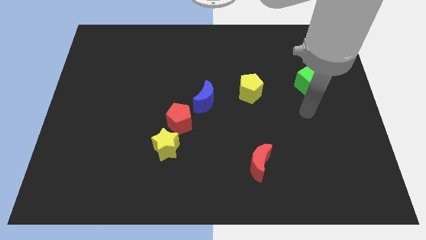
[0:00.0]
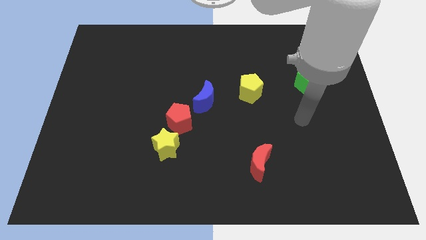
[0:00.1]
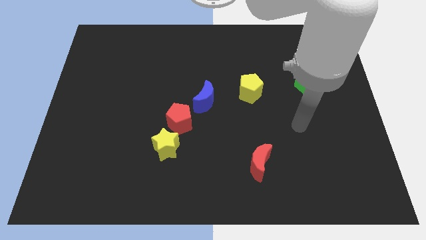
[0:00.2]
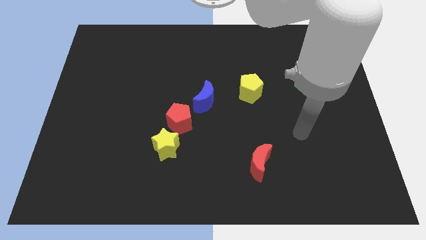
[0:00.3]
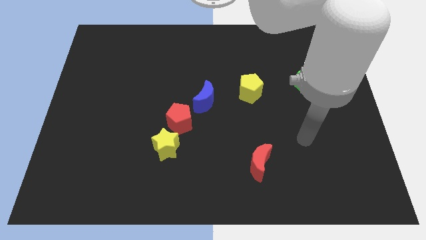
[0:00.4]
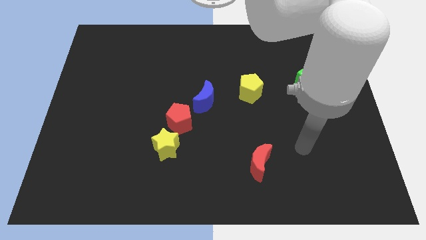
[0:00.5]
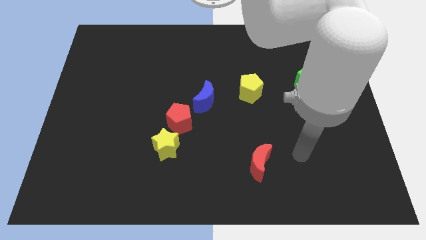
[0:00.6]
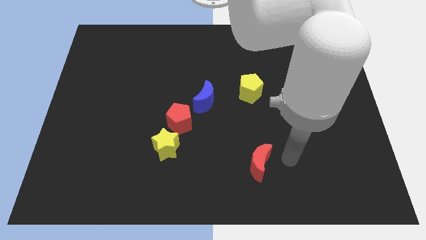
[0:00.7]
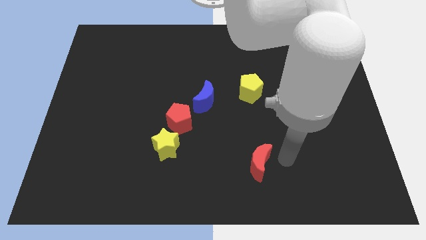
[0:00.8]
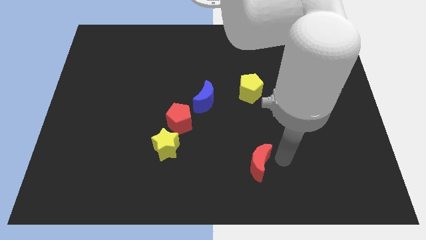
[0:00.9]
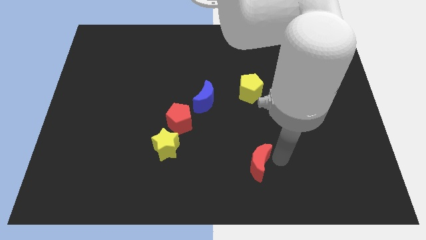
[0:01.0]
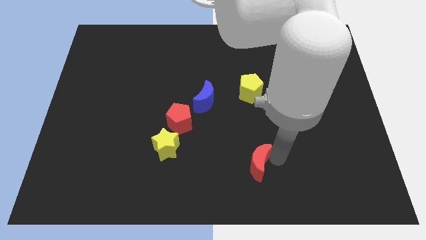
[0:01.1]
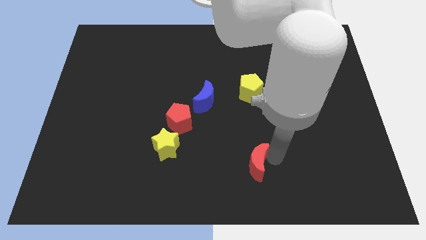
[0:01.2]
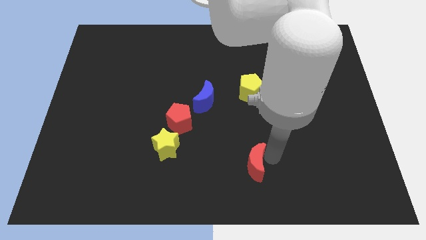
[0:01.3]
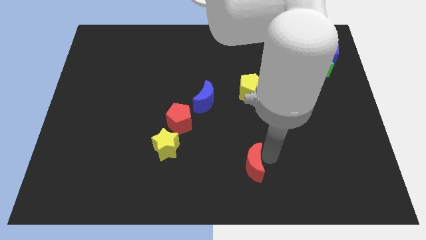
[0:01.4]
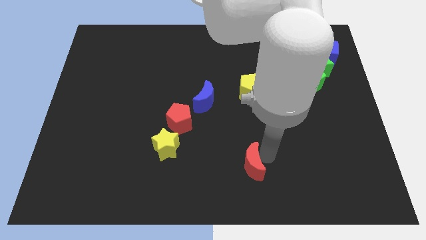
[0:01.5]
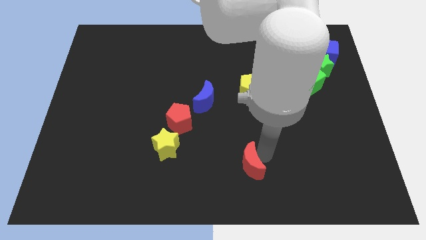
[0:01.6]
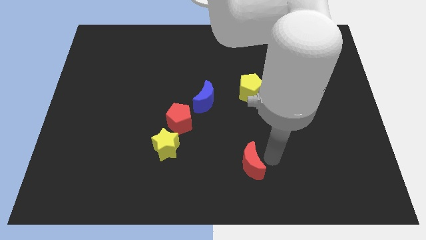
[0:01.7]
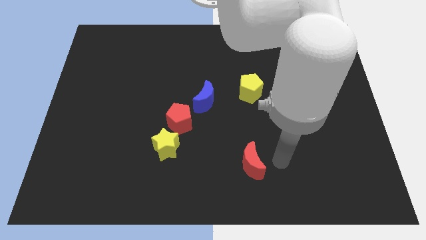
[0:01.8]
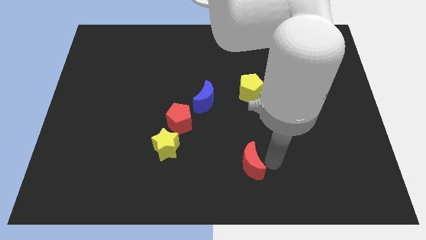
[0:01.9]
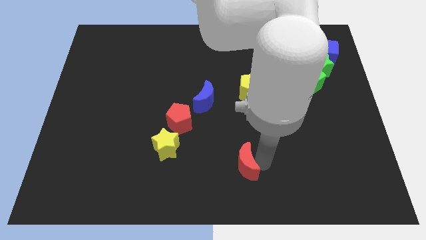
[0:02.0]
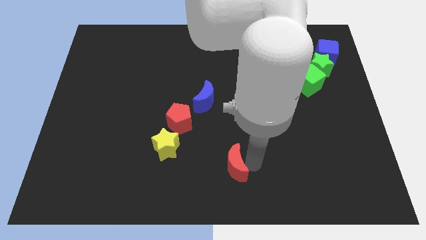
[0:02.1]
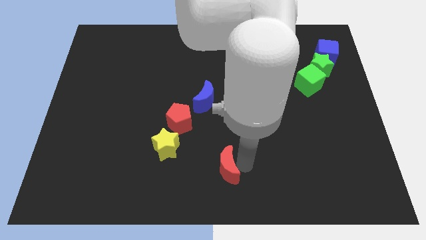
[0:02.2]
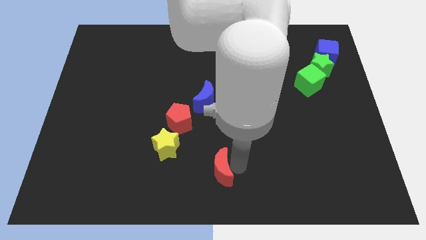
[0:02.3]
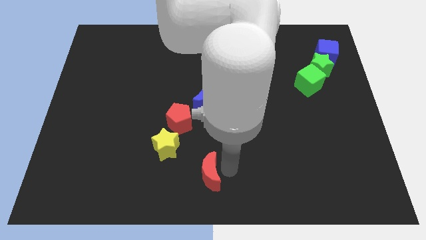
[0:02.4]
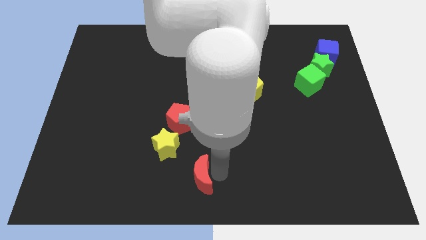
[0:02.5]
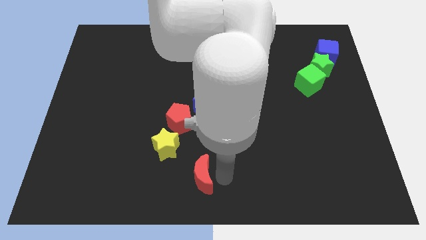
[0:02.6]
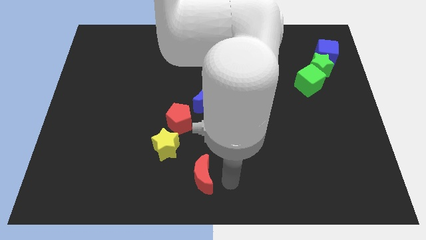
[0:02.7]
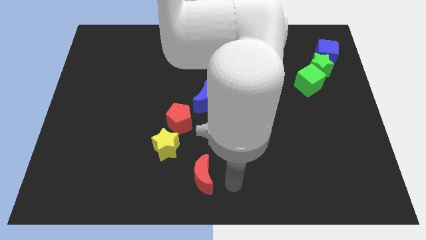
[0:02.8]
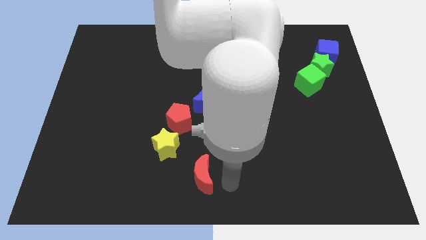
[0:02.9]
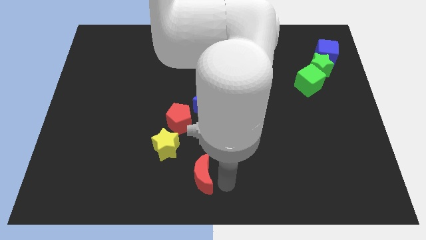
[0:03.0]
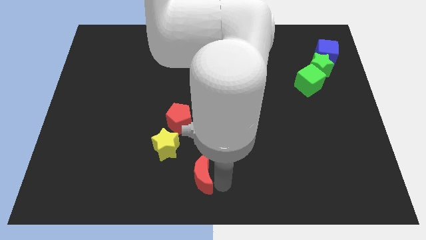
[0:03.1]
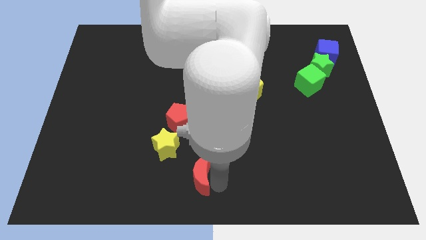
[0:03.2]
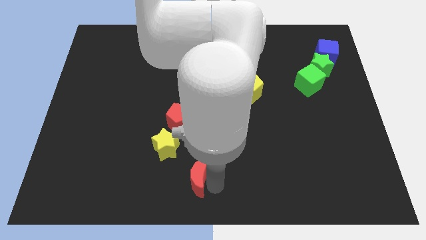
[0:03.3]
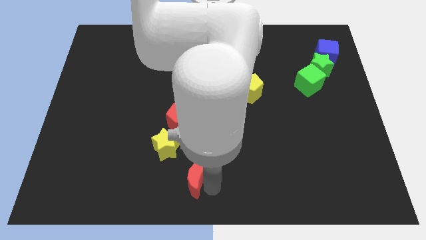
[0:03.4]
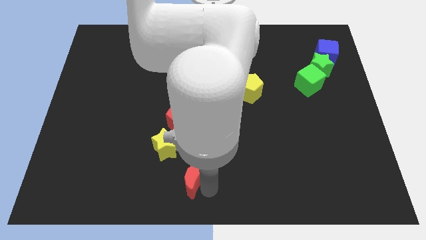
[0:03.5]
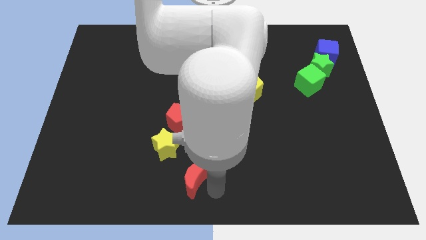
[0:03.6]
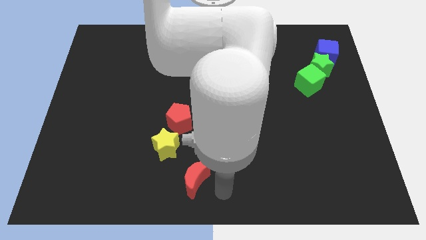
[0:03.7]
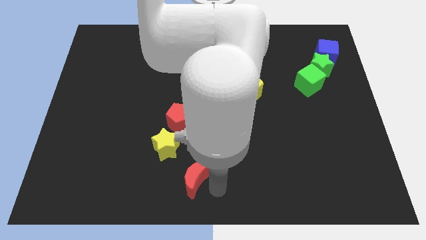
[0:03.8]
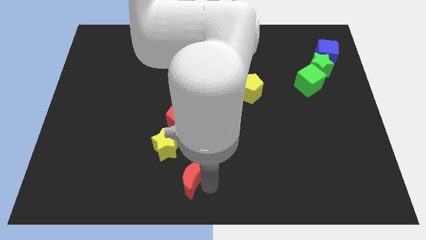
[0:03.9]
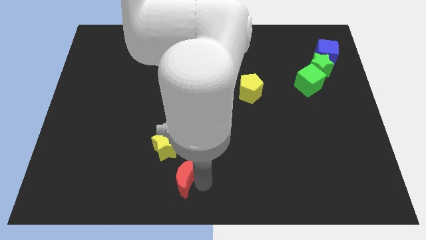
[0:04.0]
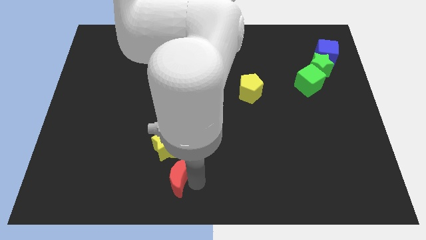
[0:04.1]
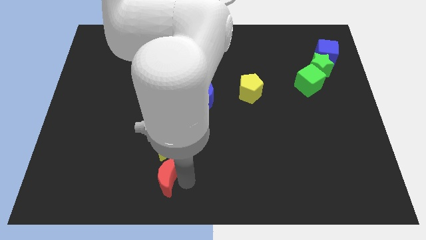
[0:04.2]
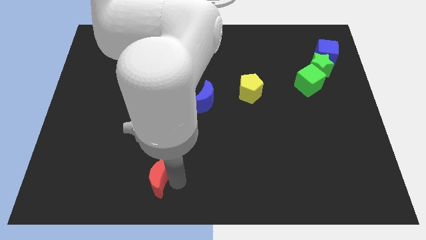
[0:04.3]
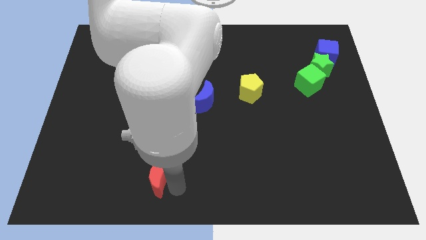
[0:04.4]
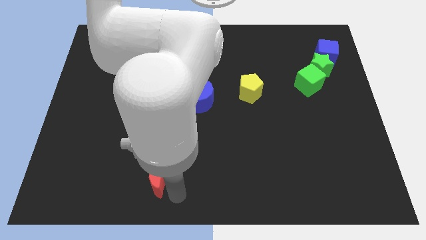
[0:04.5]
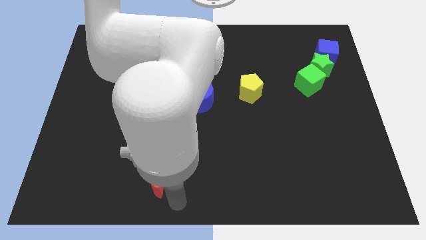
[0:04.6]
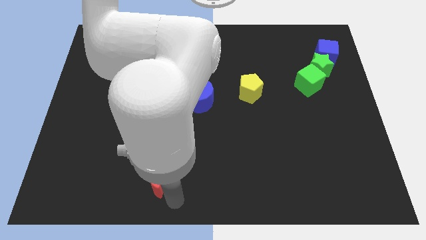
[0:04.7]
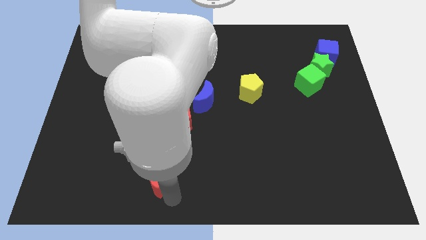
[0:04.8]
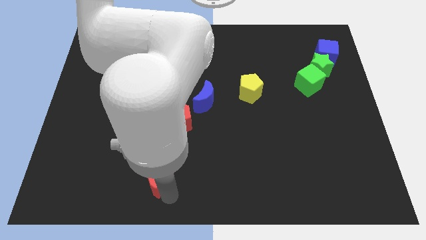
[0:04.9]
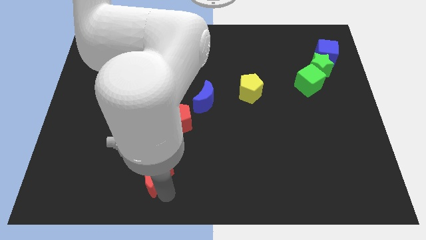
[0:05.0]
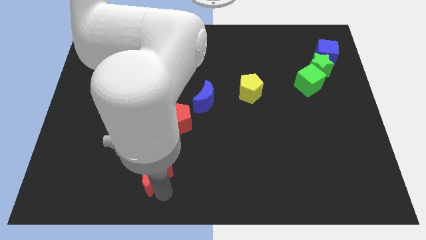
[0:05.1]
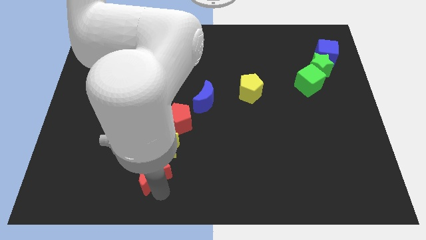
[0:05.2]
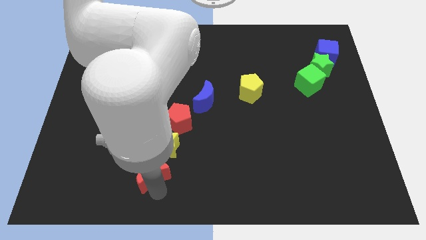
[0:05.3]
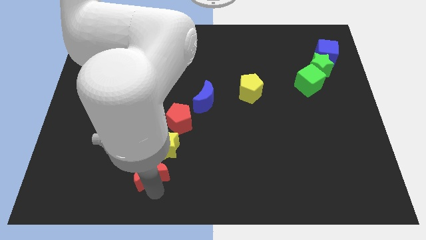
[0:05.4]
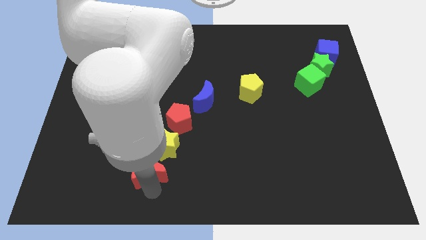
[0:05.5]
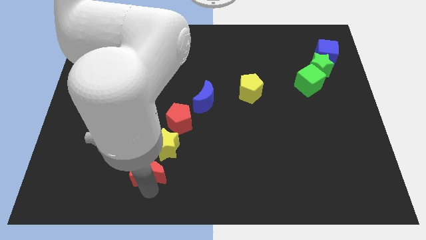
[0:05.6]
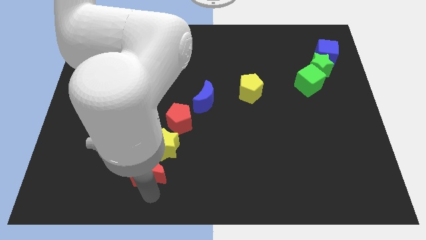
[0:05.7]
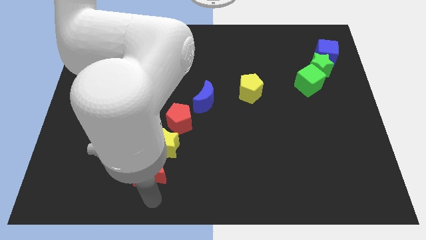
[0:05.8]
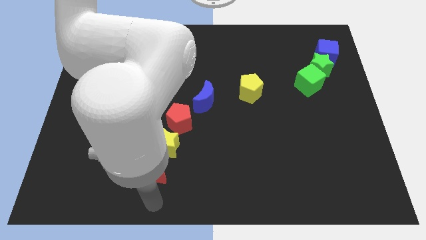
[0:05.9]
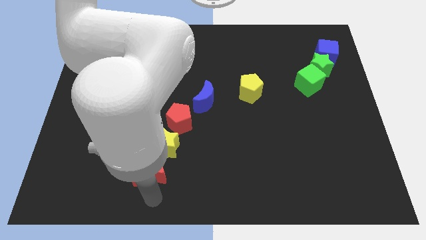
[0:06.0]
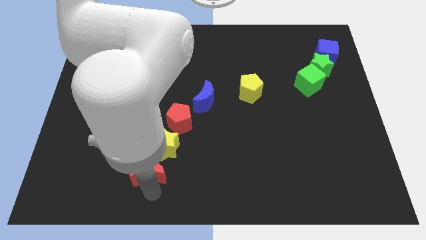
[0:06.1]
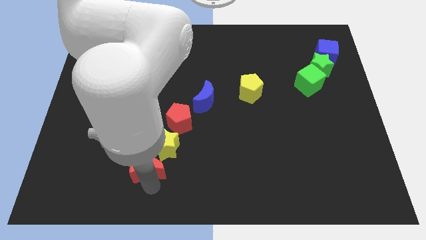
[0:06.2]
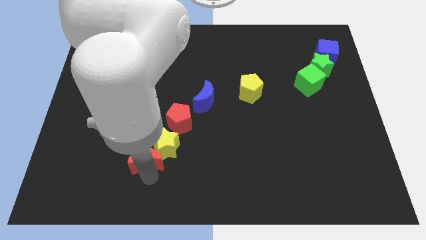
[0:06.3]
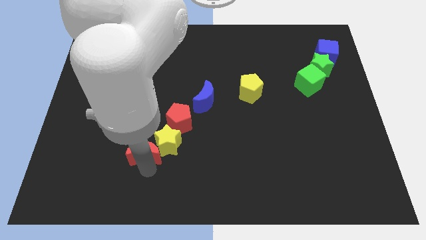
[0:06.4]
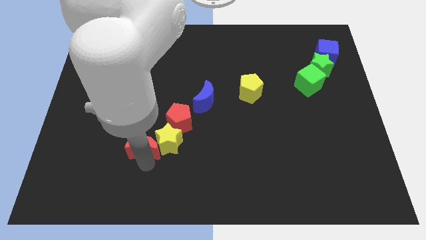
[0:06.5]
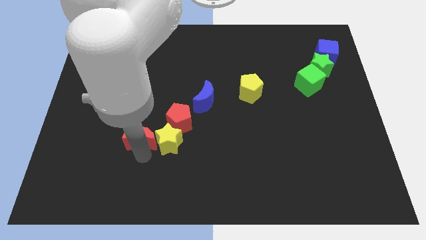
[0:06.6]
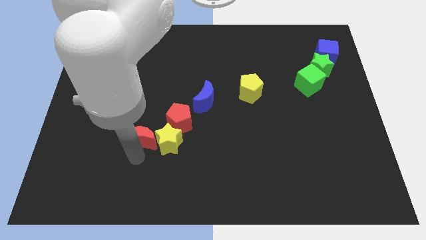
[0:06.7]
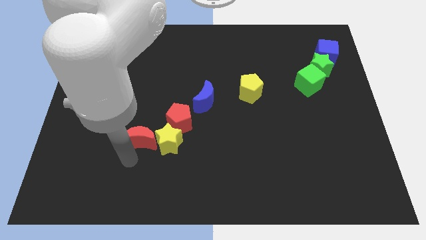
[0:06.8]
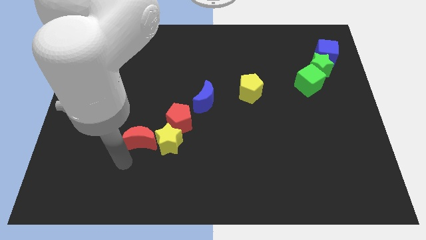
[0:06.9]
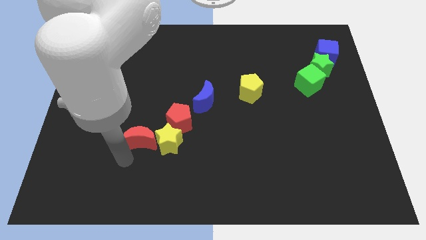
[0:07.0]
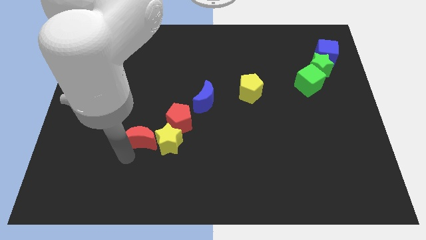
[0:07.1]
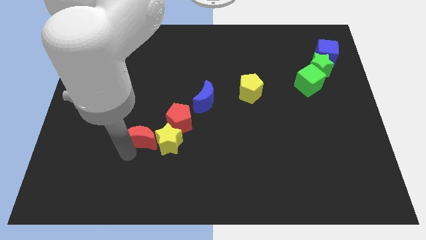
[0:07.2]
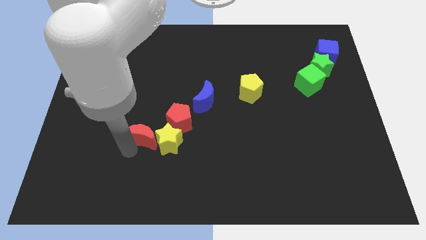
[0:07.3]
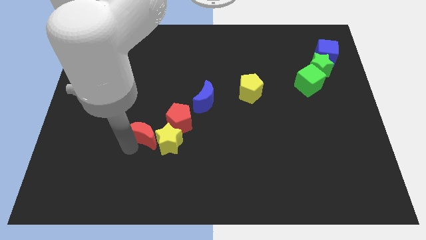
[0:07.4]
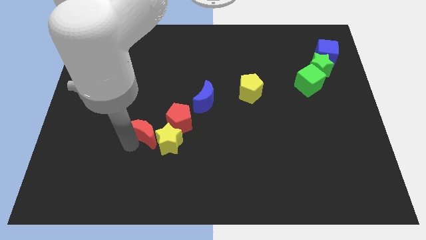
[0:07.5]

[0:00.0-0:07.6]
slide the red moon slightly upwards and to the left diagonally

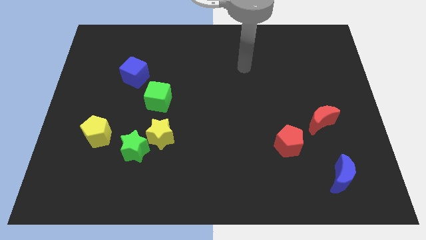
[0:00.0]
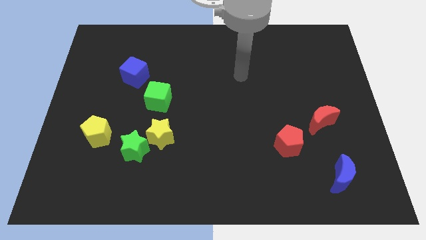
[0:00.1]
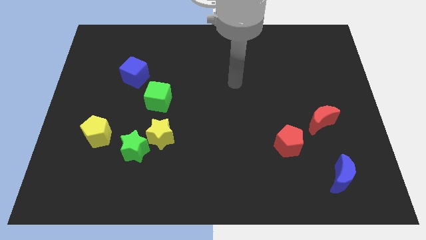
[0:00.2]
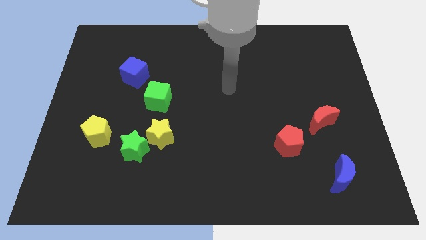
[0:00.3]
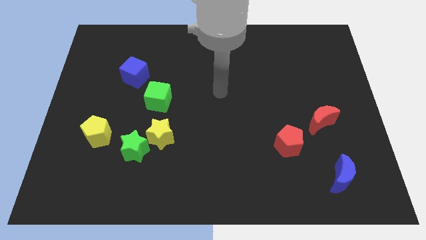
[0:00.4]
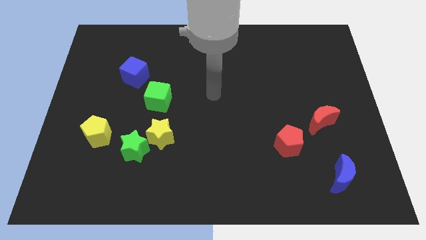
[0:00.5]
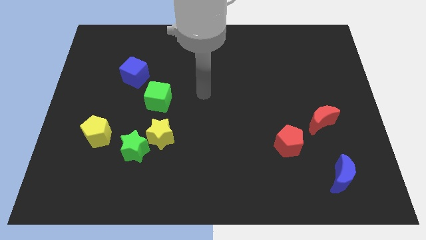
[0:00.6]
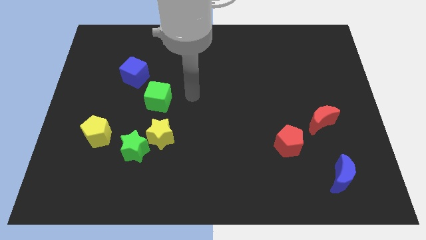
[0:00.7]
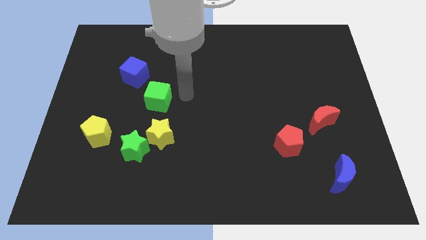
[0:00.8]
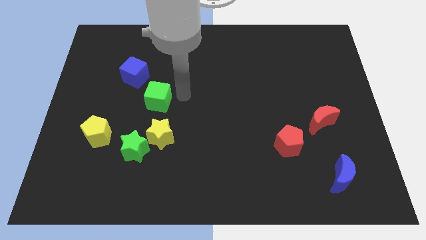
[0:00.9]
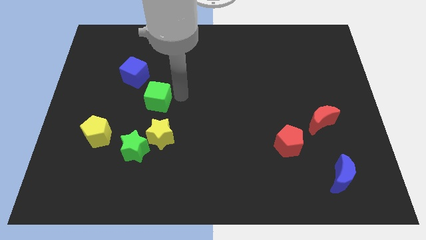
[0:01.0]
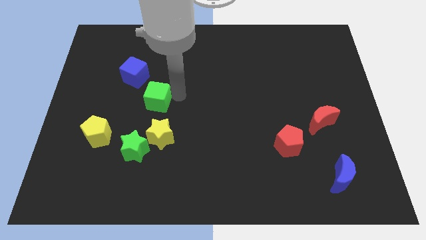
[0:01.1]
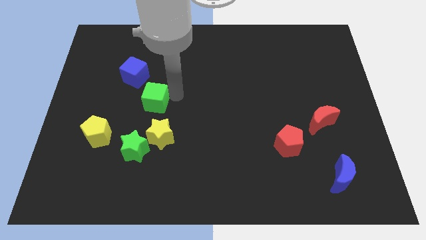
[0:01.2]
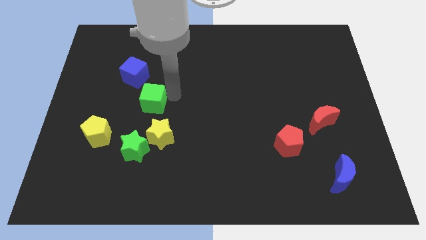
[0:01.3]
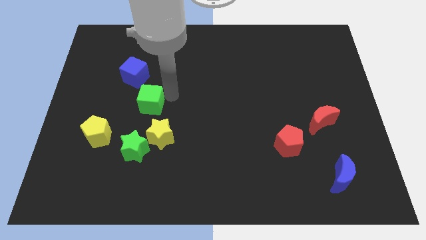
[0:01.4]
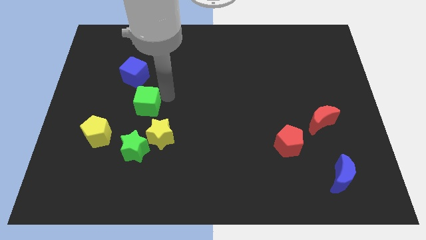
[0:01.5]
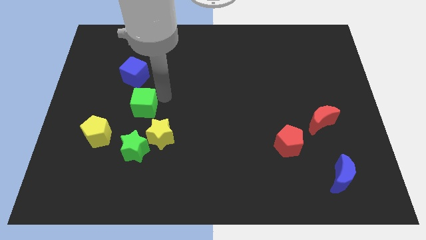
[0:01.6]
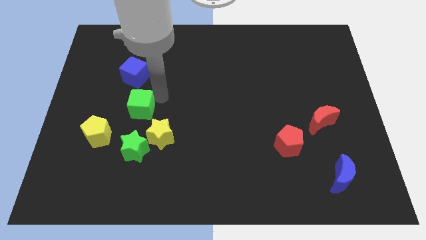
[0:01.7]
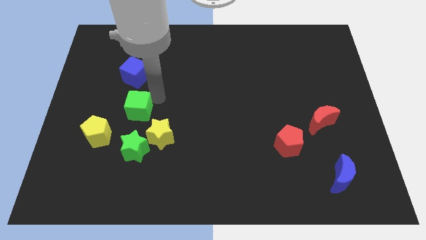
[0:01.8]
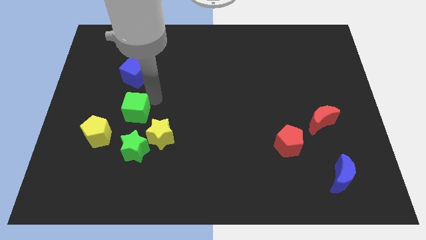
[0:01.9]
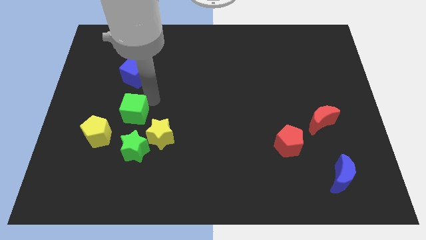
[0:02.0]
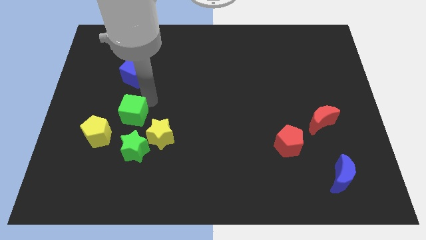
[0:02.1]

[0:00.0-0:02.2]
push the green cube slightly down and to the left diagonally
